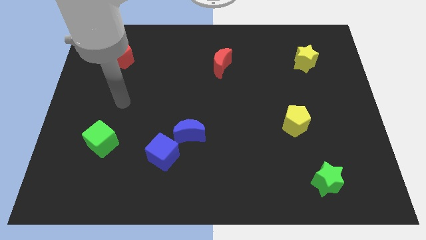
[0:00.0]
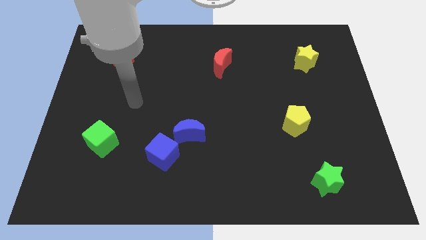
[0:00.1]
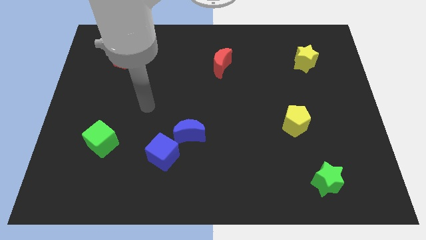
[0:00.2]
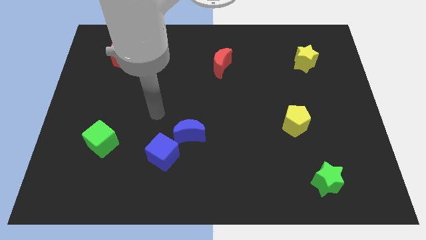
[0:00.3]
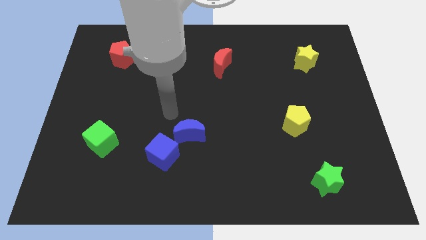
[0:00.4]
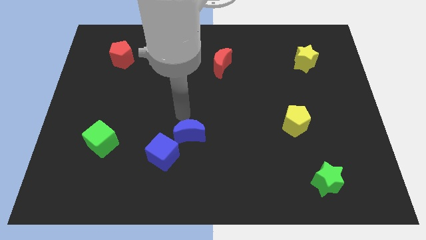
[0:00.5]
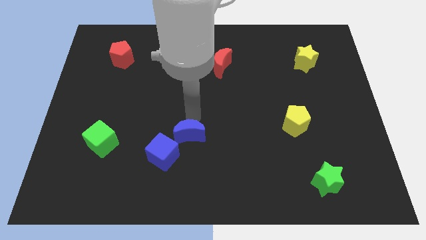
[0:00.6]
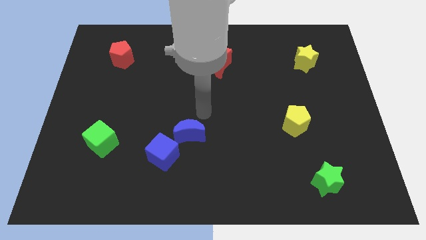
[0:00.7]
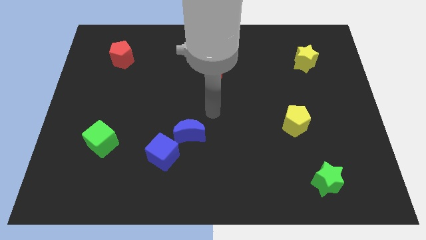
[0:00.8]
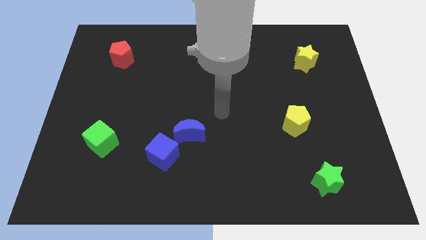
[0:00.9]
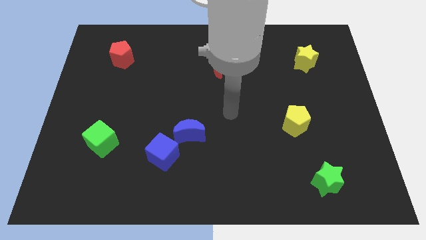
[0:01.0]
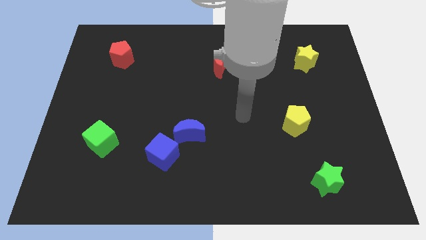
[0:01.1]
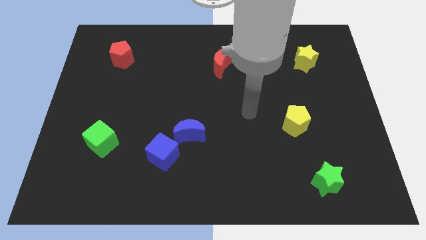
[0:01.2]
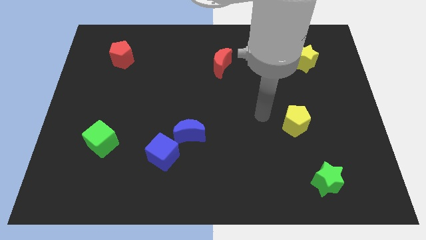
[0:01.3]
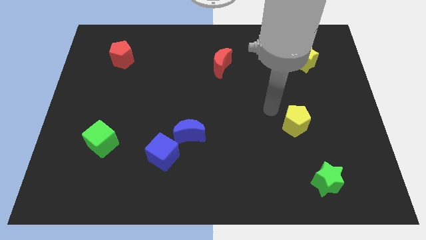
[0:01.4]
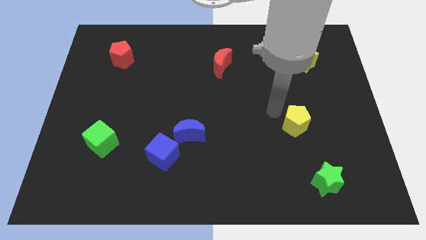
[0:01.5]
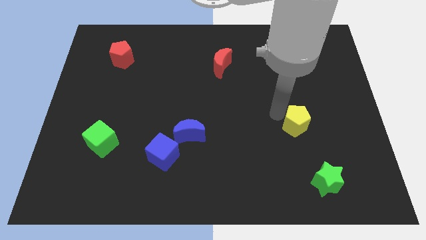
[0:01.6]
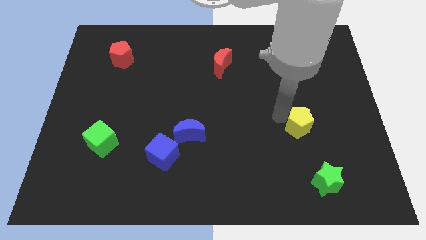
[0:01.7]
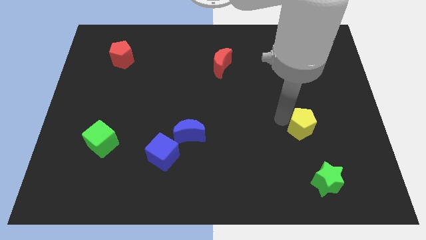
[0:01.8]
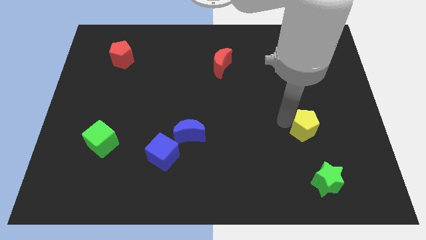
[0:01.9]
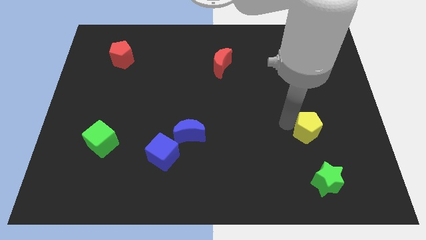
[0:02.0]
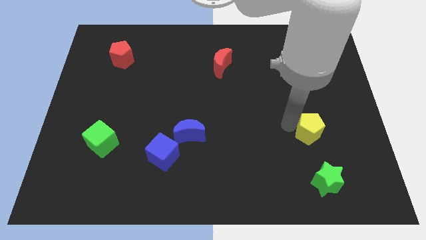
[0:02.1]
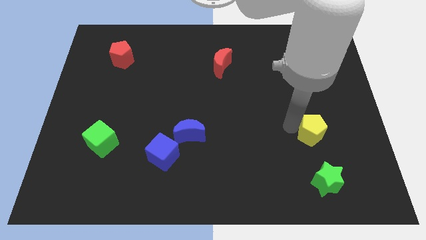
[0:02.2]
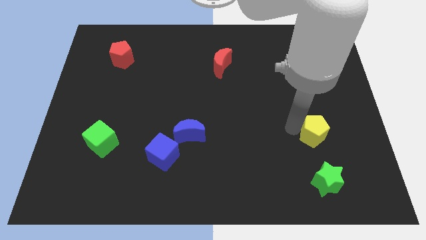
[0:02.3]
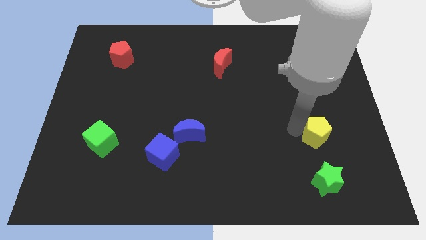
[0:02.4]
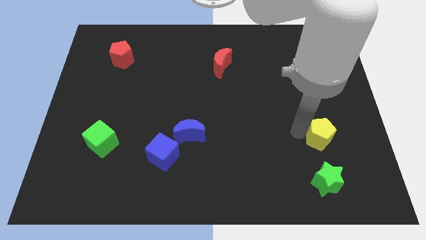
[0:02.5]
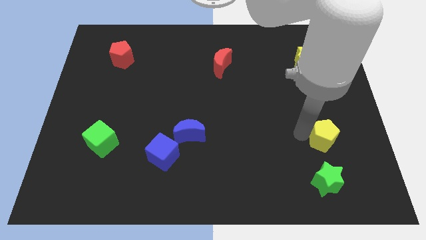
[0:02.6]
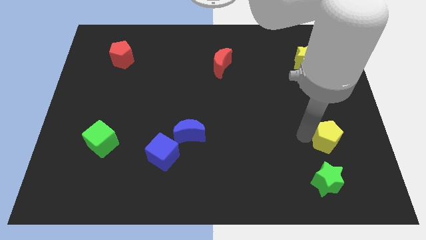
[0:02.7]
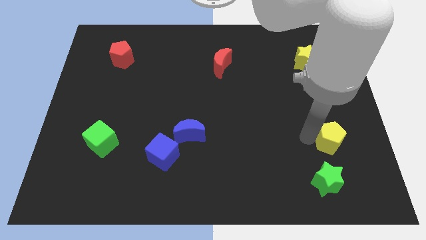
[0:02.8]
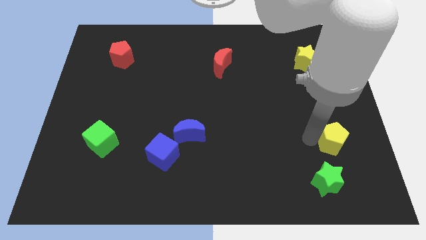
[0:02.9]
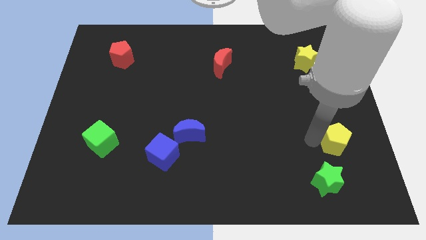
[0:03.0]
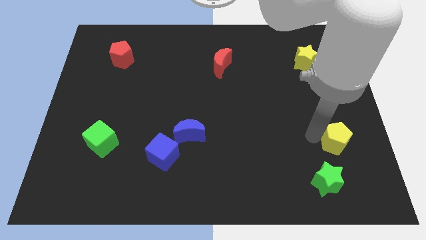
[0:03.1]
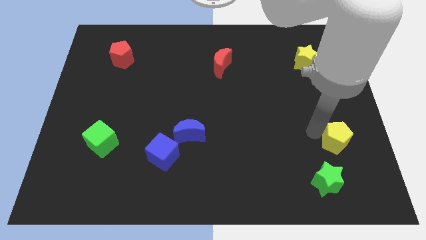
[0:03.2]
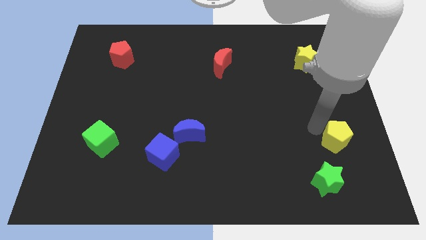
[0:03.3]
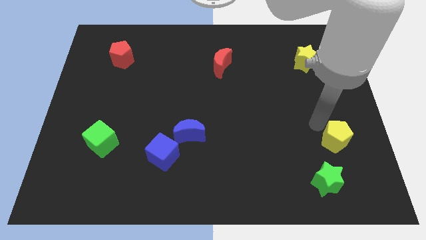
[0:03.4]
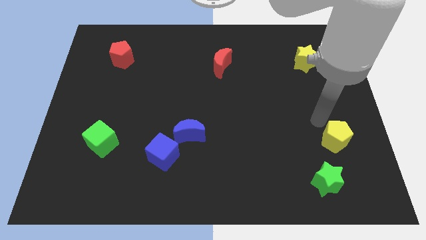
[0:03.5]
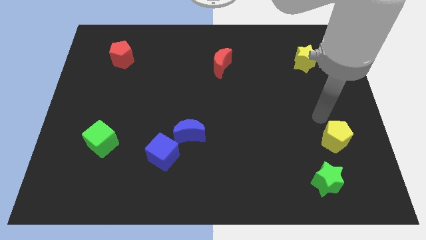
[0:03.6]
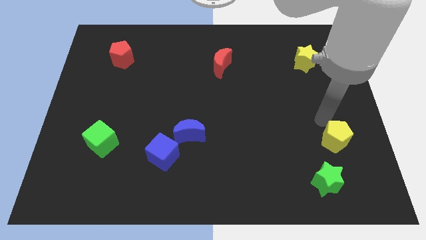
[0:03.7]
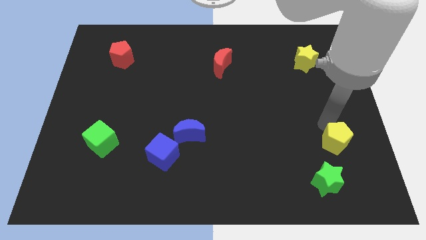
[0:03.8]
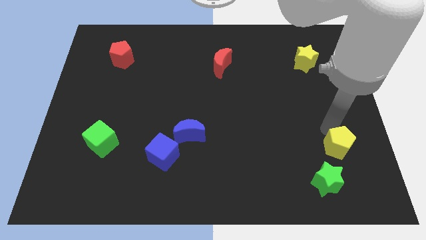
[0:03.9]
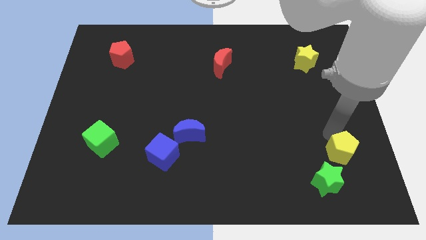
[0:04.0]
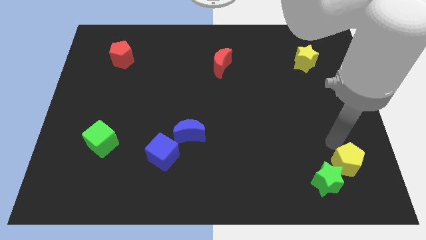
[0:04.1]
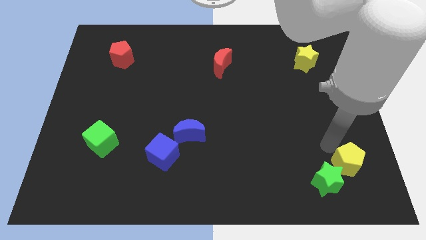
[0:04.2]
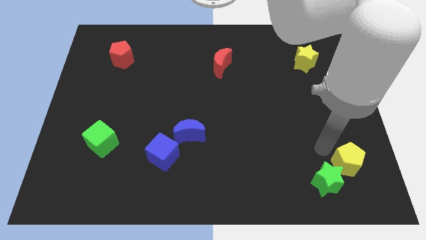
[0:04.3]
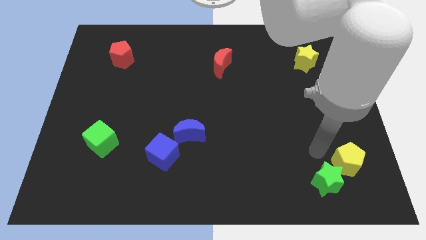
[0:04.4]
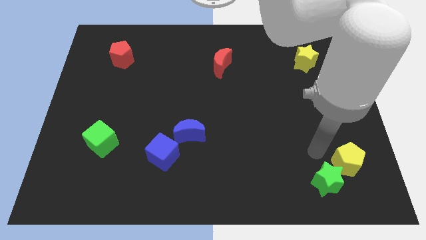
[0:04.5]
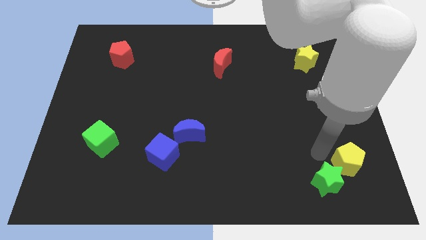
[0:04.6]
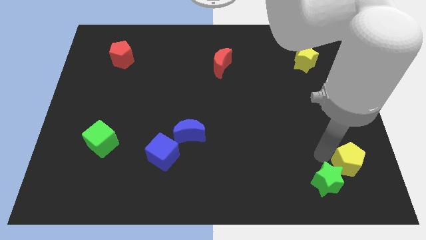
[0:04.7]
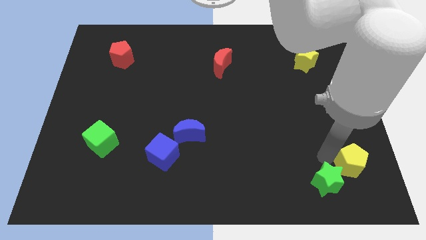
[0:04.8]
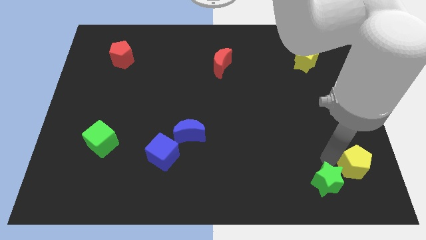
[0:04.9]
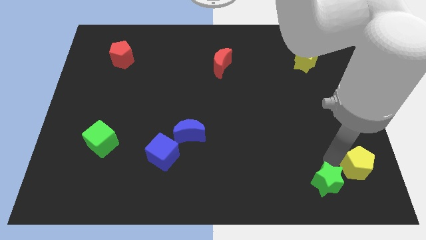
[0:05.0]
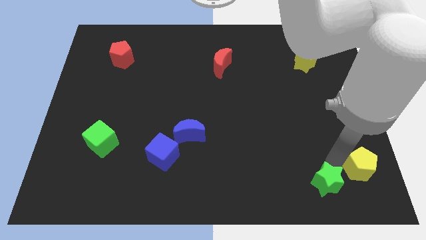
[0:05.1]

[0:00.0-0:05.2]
slide the yellow pentagon to the bottom right

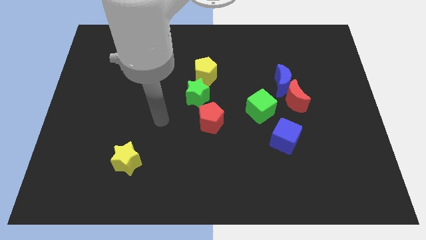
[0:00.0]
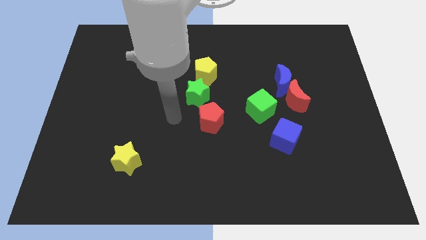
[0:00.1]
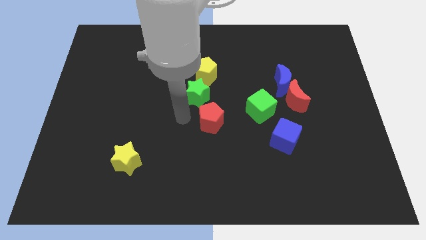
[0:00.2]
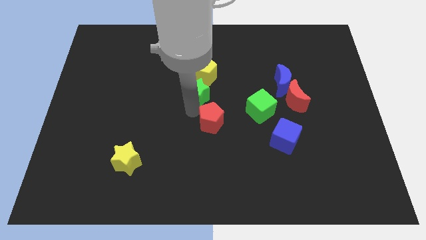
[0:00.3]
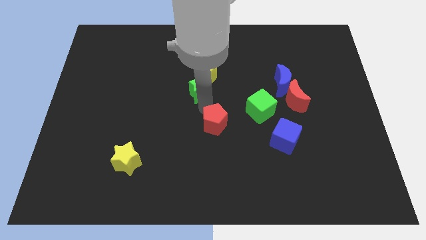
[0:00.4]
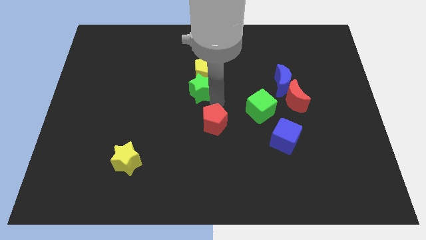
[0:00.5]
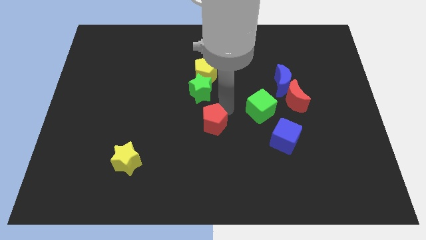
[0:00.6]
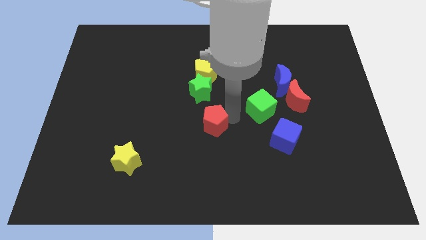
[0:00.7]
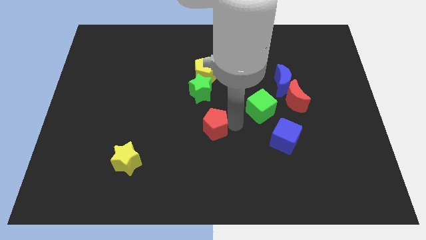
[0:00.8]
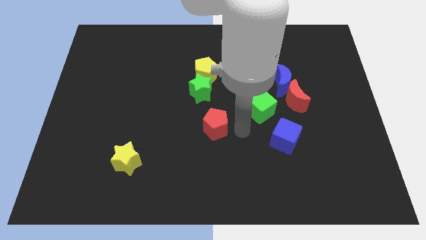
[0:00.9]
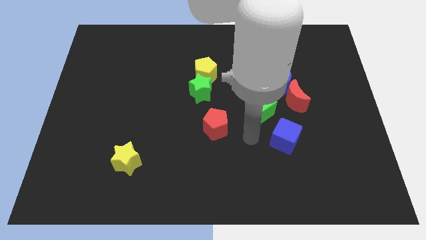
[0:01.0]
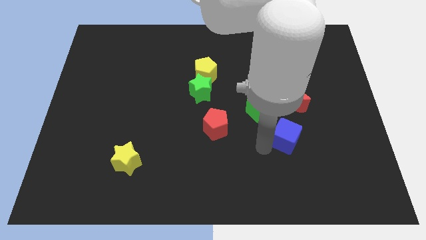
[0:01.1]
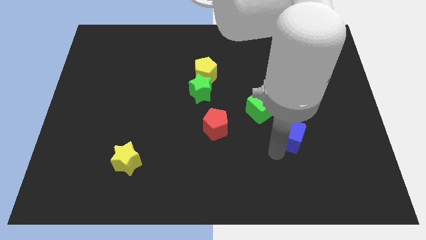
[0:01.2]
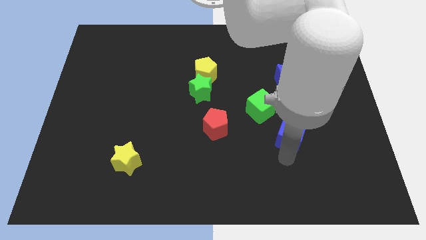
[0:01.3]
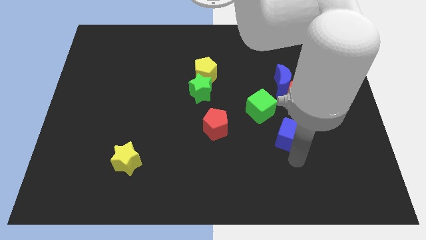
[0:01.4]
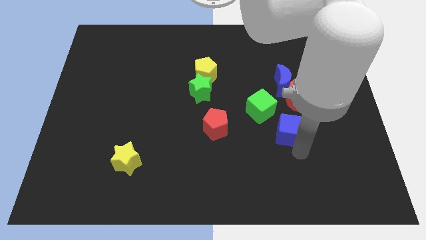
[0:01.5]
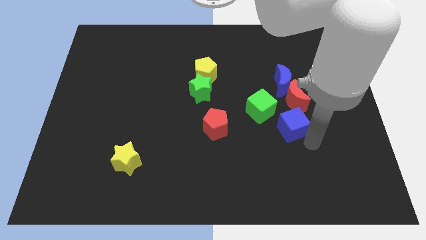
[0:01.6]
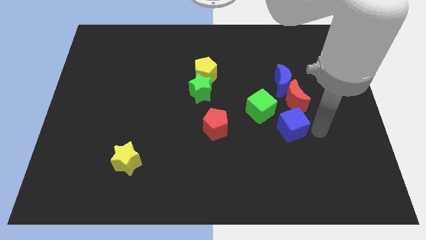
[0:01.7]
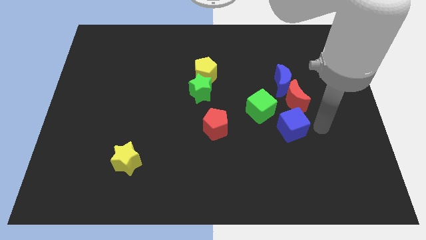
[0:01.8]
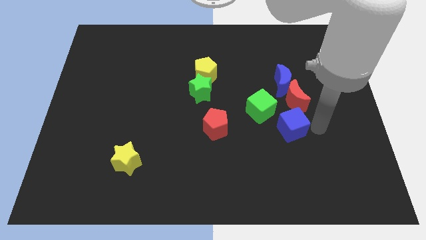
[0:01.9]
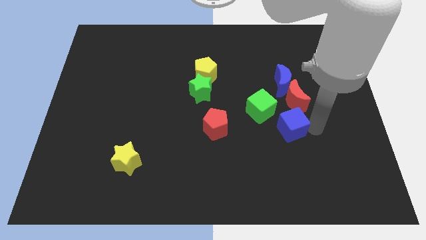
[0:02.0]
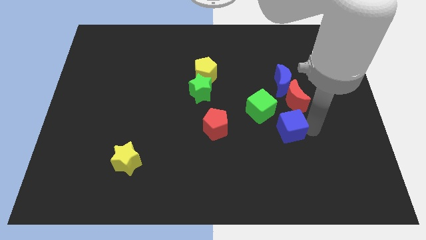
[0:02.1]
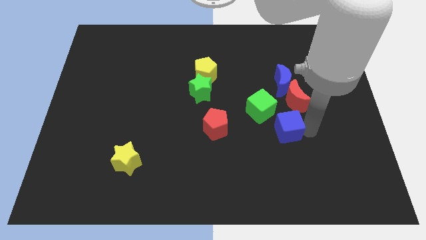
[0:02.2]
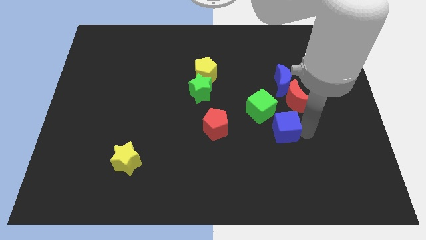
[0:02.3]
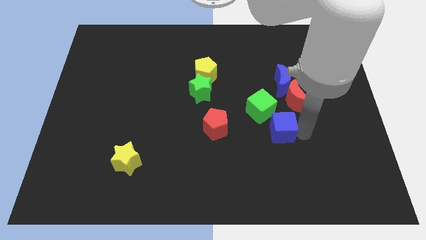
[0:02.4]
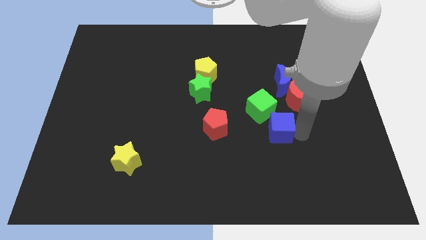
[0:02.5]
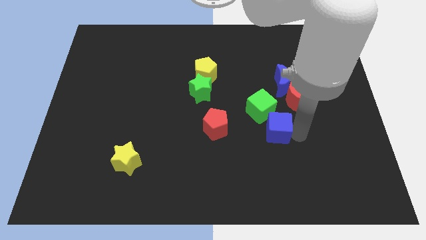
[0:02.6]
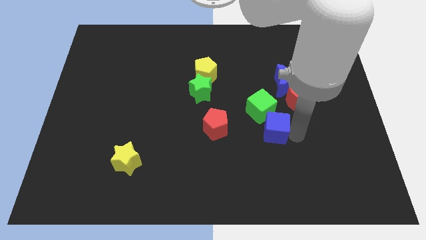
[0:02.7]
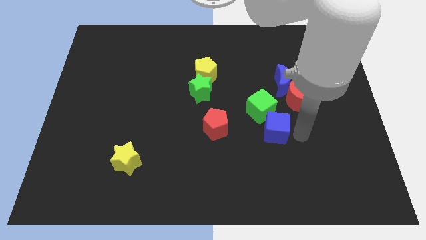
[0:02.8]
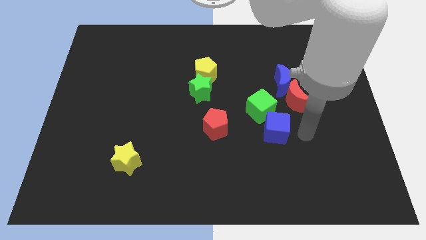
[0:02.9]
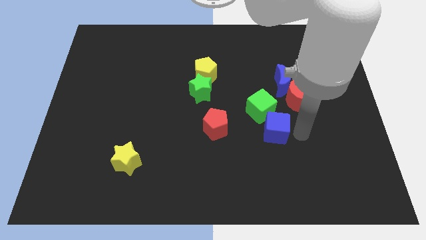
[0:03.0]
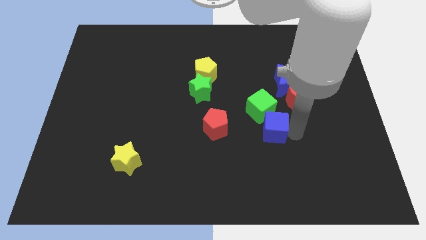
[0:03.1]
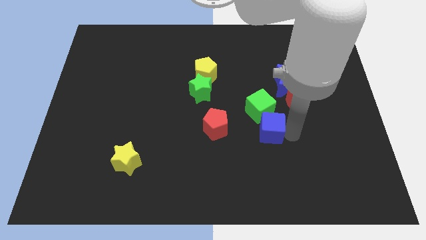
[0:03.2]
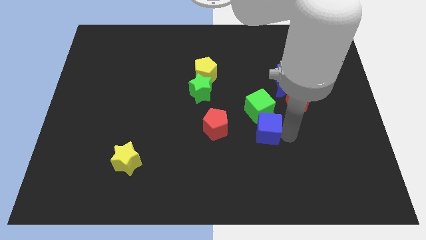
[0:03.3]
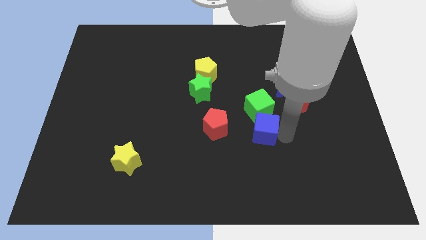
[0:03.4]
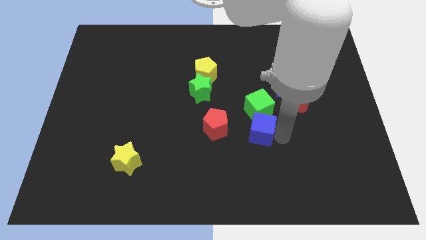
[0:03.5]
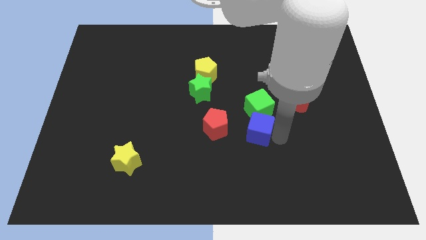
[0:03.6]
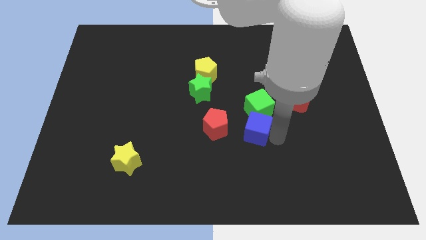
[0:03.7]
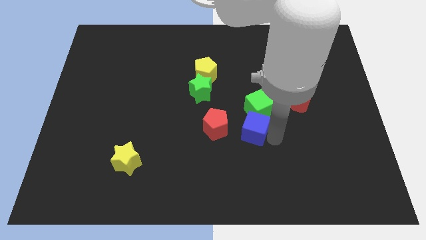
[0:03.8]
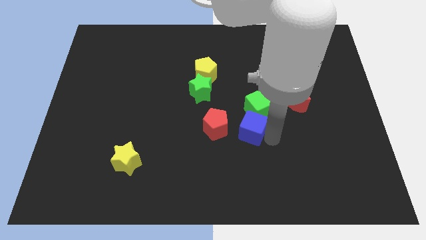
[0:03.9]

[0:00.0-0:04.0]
put the blue cube to the center of the board
